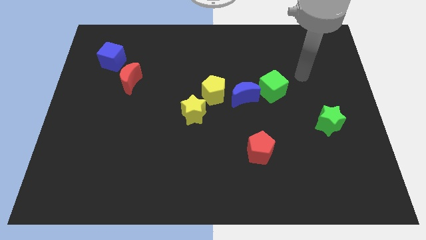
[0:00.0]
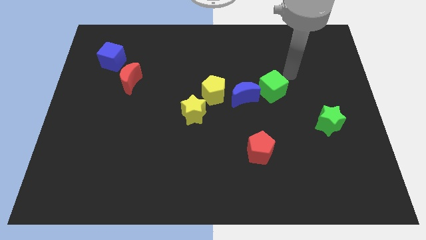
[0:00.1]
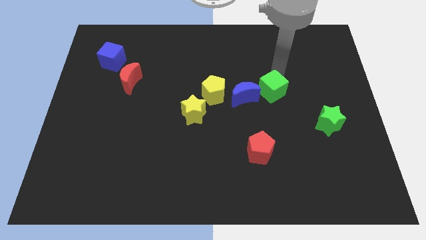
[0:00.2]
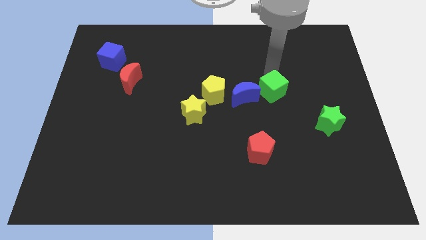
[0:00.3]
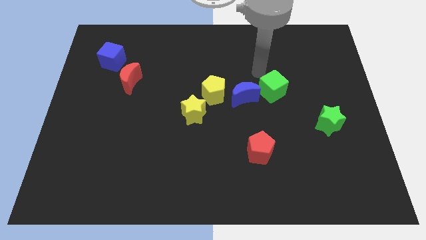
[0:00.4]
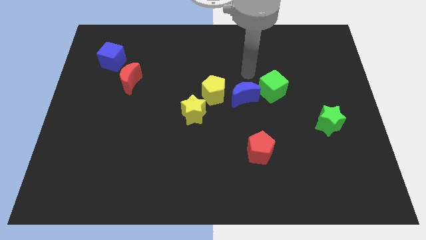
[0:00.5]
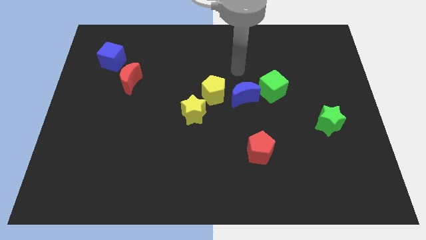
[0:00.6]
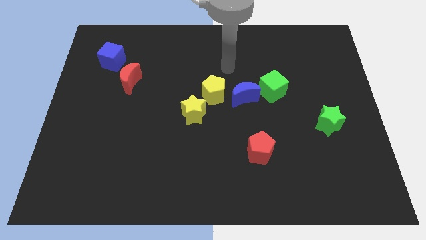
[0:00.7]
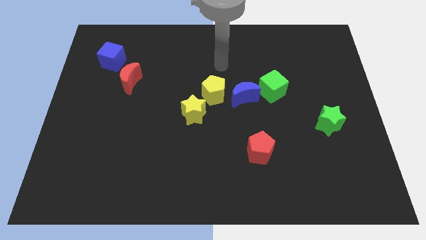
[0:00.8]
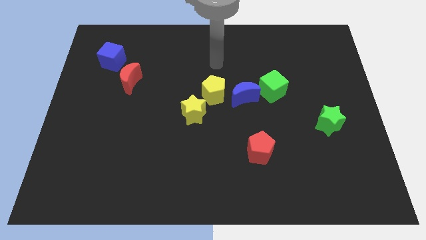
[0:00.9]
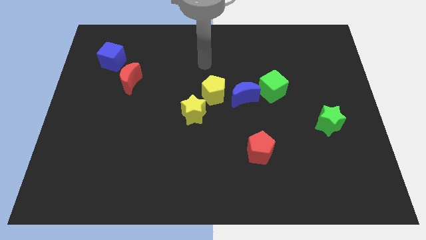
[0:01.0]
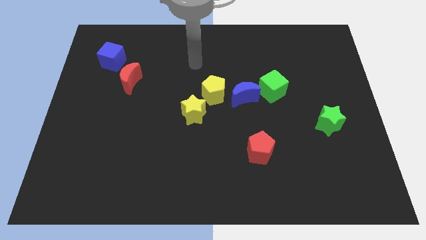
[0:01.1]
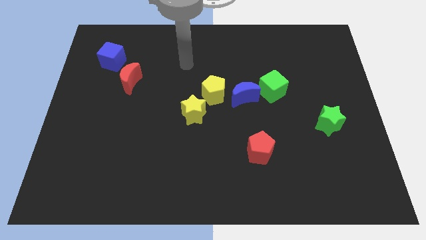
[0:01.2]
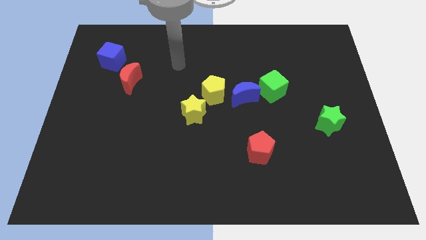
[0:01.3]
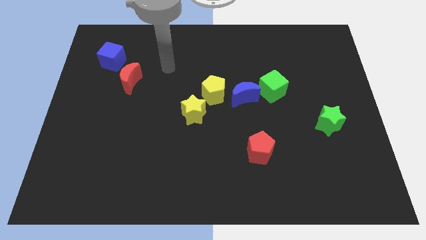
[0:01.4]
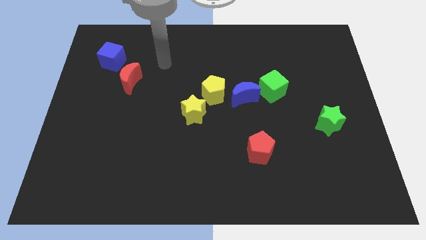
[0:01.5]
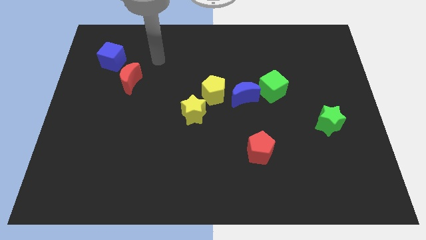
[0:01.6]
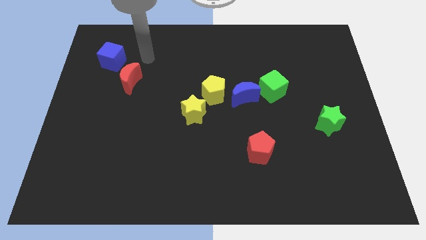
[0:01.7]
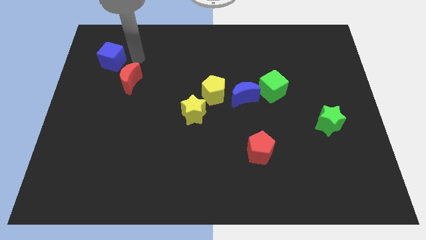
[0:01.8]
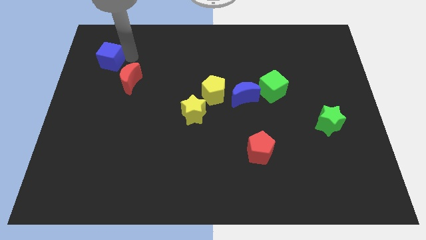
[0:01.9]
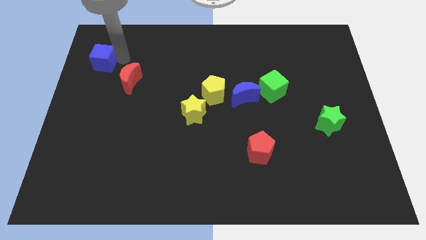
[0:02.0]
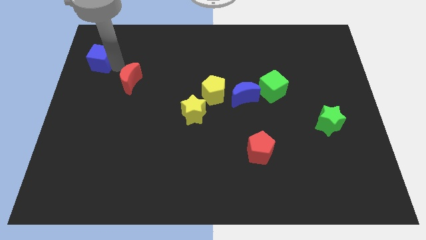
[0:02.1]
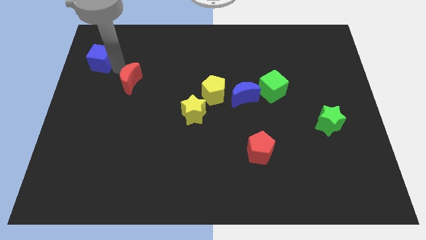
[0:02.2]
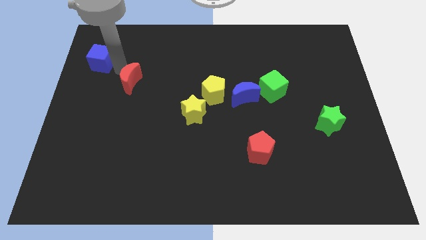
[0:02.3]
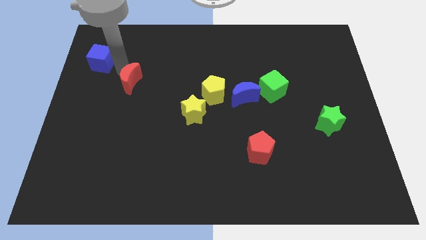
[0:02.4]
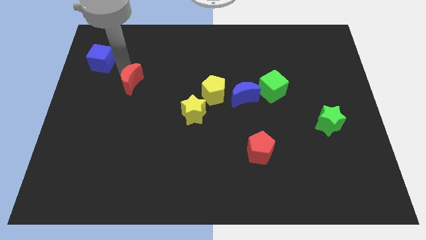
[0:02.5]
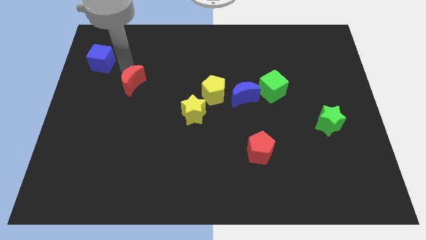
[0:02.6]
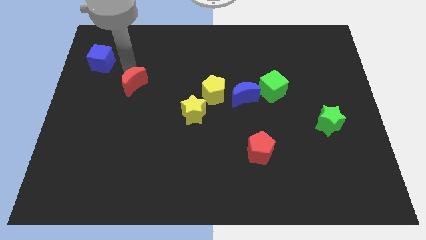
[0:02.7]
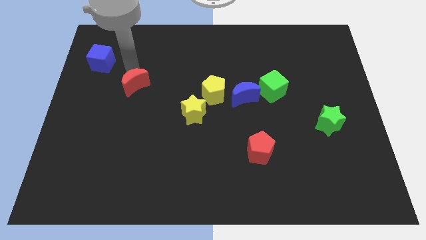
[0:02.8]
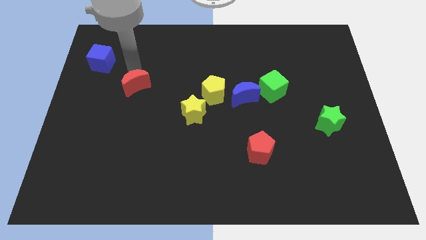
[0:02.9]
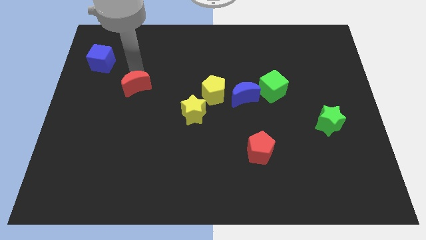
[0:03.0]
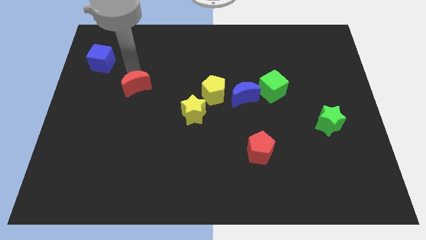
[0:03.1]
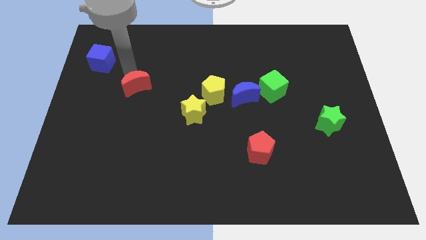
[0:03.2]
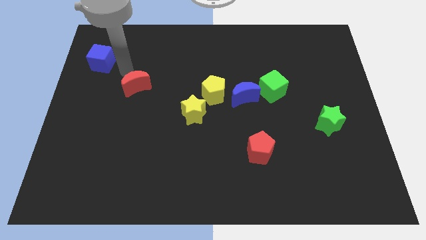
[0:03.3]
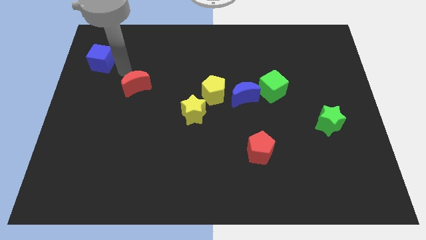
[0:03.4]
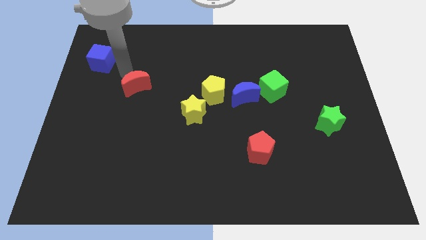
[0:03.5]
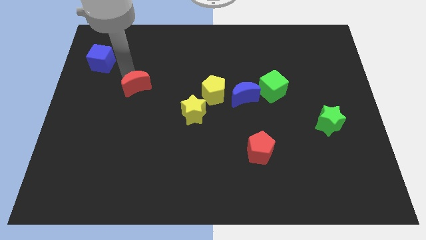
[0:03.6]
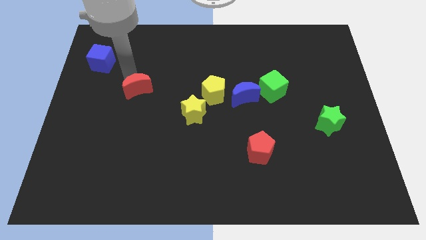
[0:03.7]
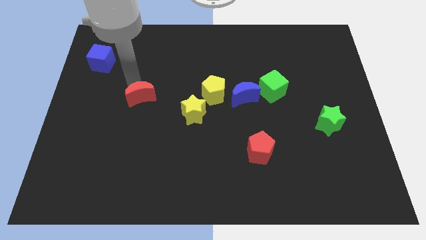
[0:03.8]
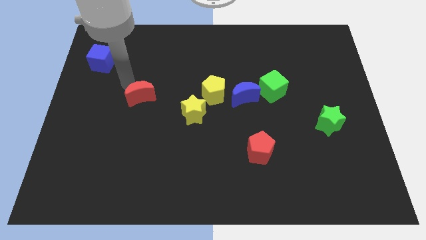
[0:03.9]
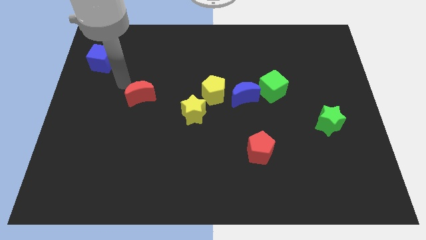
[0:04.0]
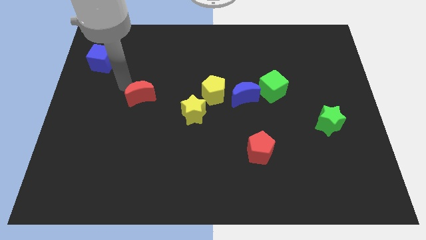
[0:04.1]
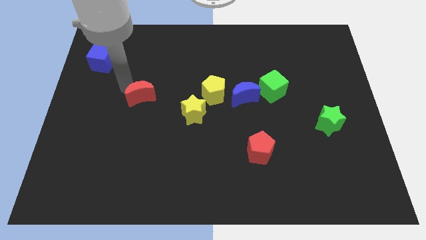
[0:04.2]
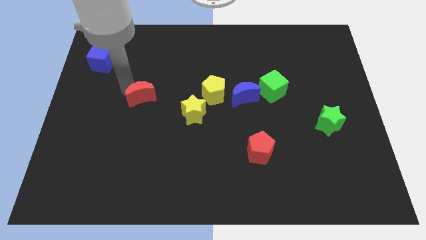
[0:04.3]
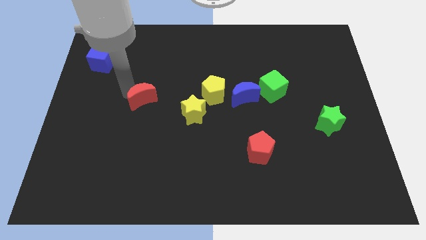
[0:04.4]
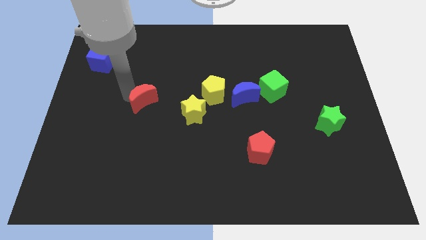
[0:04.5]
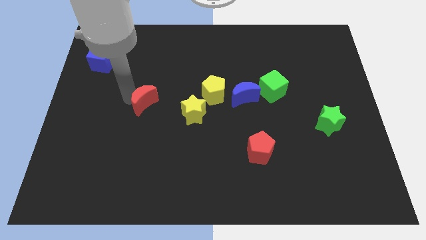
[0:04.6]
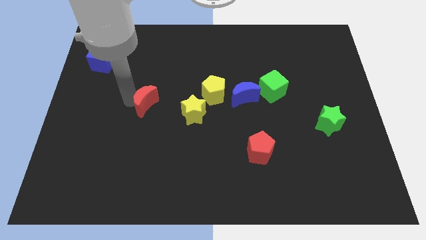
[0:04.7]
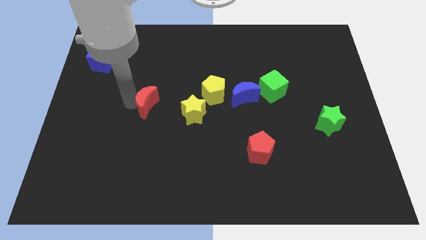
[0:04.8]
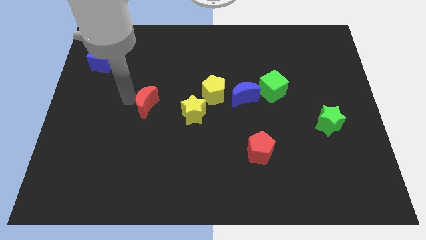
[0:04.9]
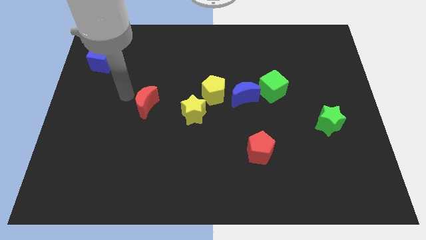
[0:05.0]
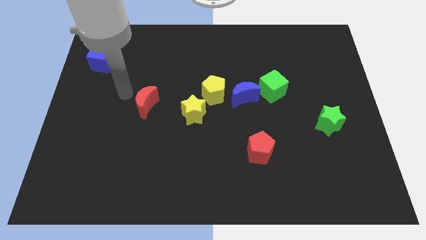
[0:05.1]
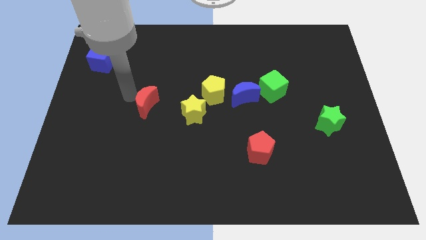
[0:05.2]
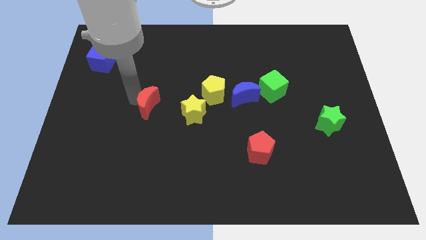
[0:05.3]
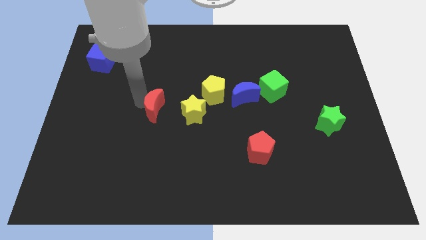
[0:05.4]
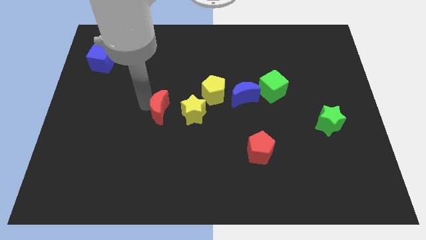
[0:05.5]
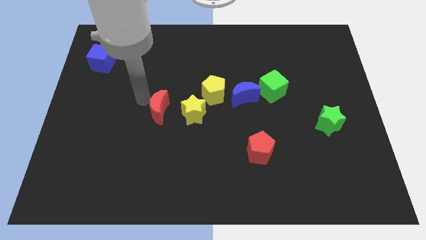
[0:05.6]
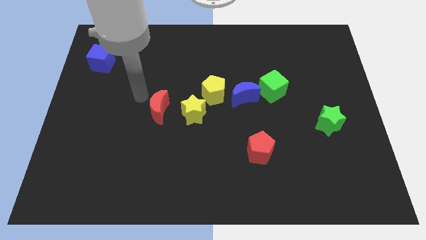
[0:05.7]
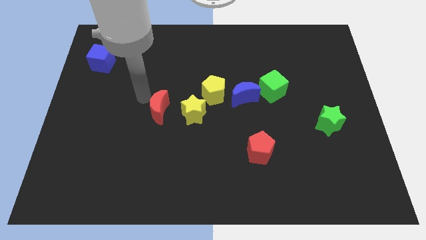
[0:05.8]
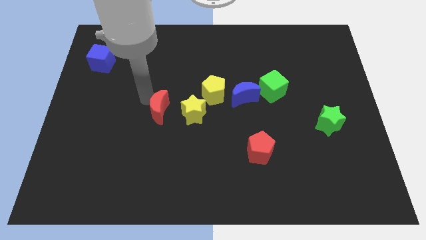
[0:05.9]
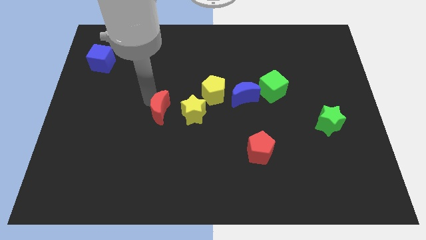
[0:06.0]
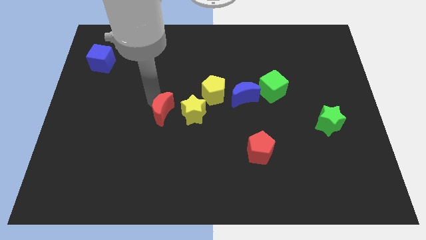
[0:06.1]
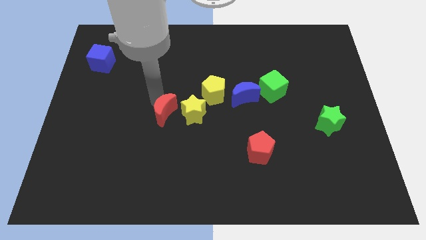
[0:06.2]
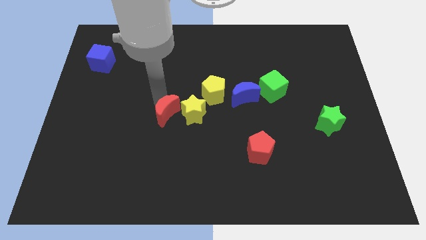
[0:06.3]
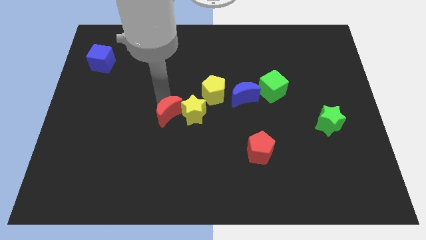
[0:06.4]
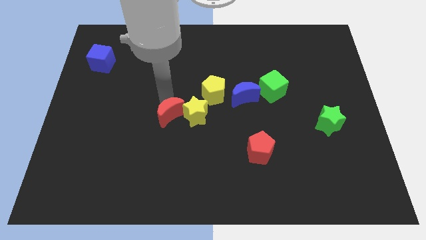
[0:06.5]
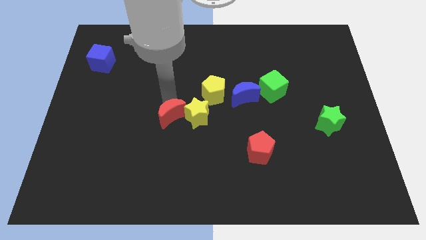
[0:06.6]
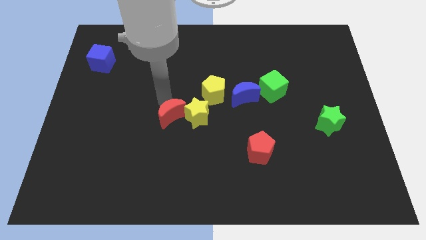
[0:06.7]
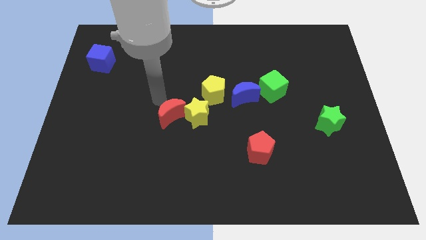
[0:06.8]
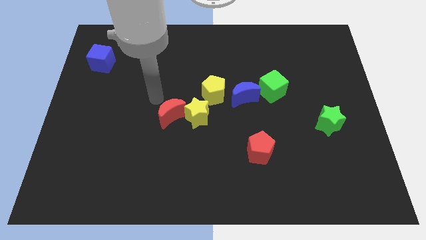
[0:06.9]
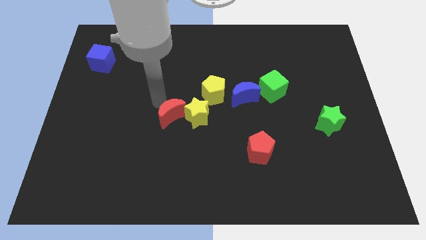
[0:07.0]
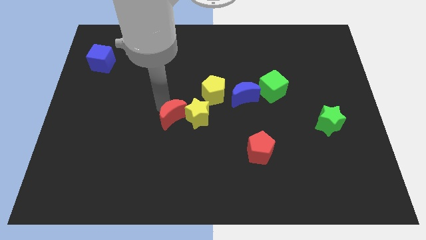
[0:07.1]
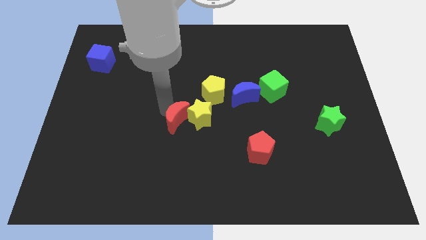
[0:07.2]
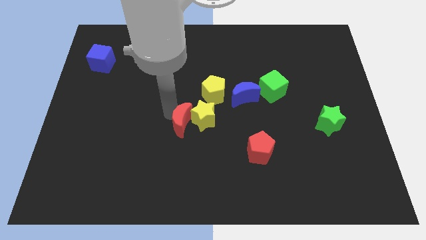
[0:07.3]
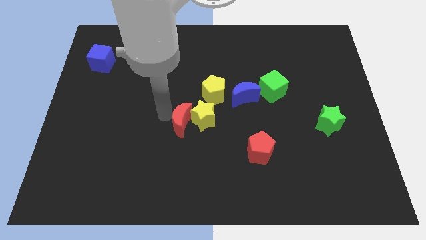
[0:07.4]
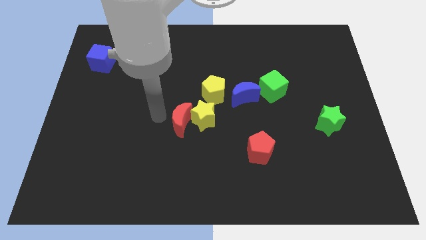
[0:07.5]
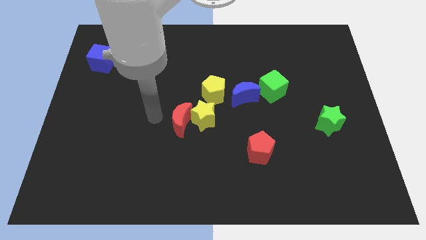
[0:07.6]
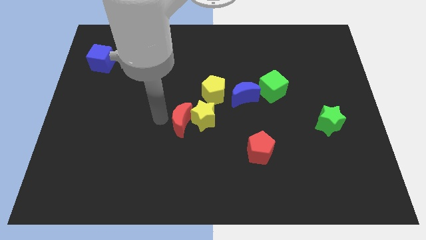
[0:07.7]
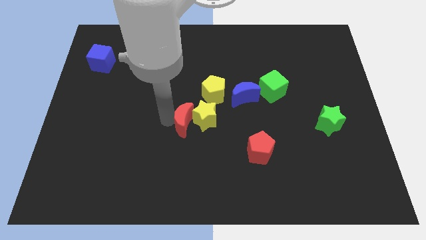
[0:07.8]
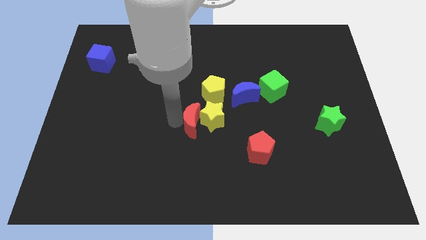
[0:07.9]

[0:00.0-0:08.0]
move the red moon to the bottom of the yellow pentagon
